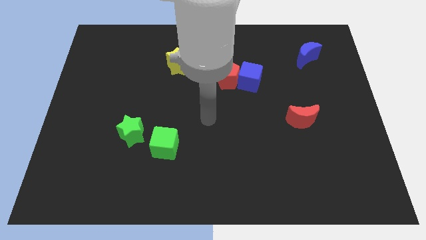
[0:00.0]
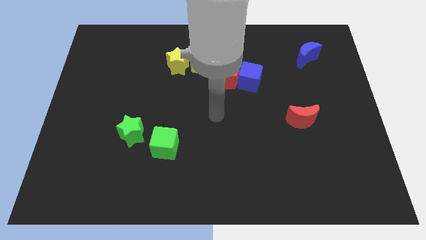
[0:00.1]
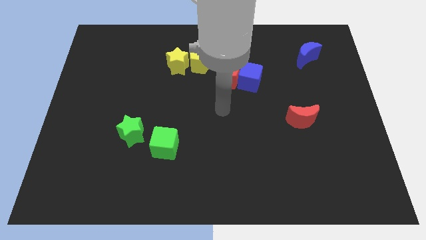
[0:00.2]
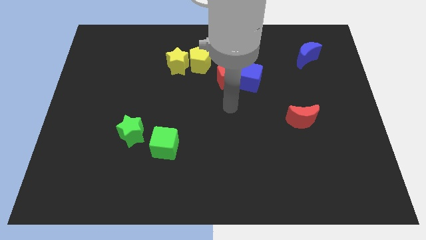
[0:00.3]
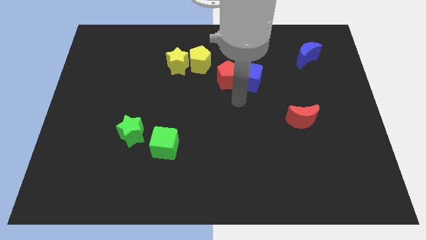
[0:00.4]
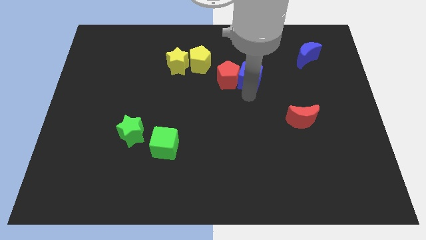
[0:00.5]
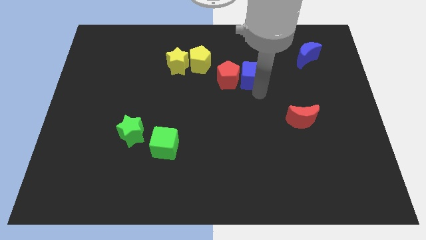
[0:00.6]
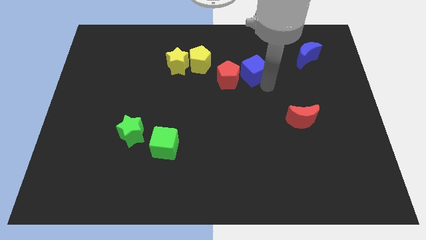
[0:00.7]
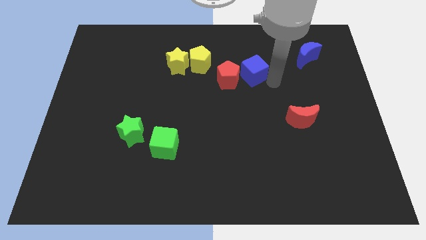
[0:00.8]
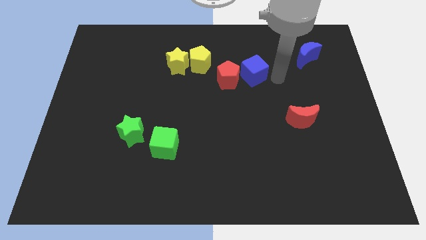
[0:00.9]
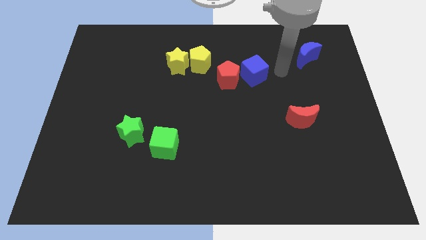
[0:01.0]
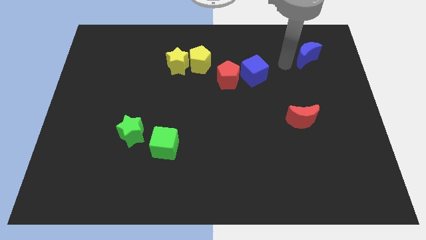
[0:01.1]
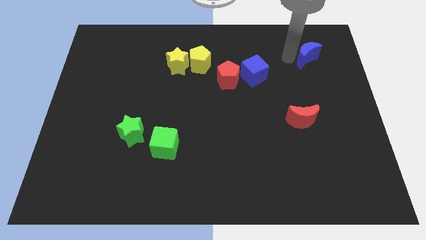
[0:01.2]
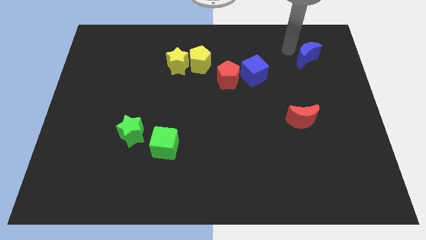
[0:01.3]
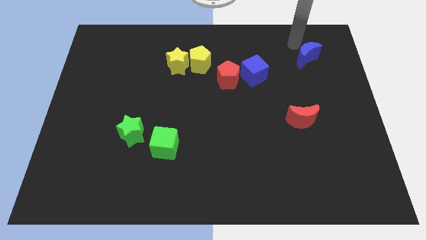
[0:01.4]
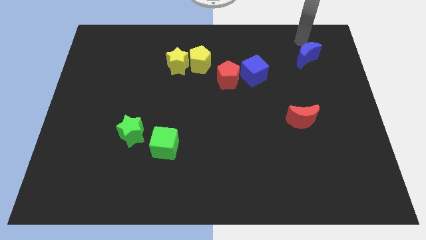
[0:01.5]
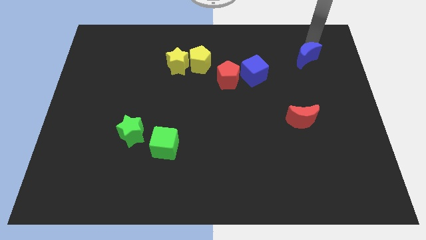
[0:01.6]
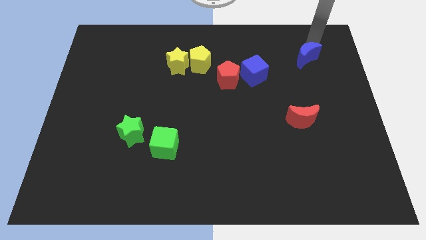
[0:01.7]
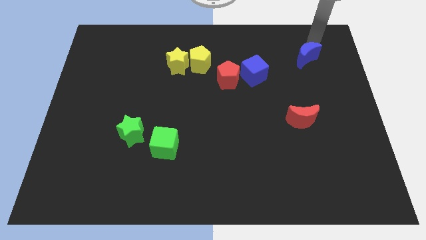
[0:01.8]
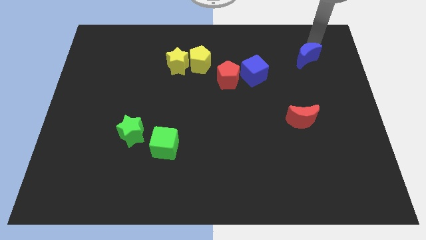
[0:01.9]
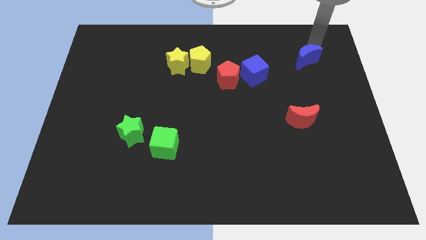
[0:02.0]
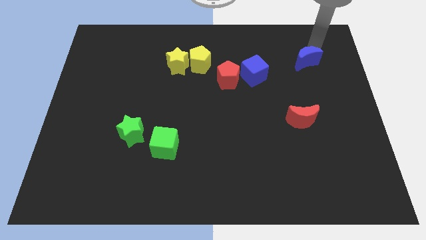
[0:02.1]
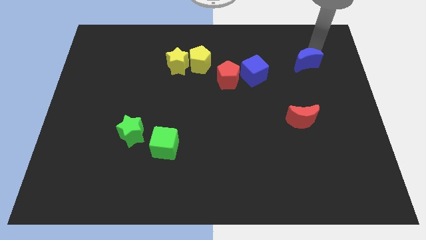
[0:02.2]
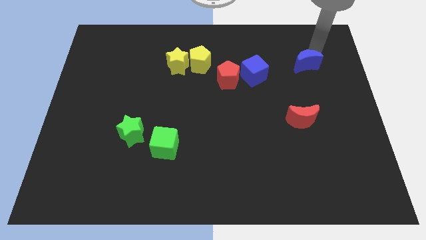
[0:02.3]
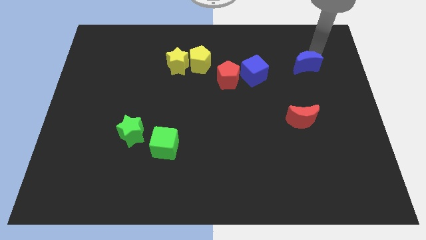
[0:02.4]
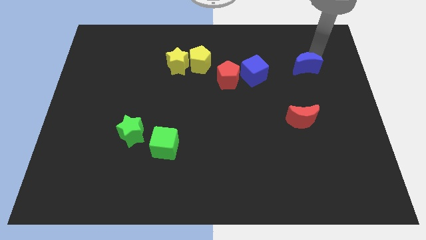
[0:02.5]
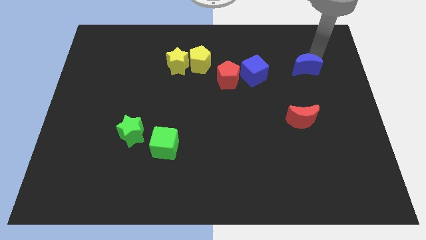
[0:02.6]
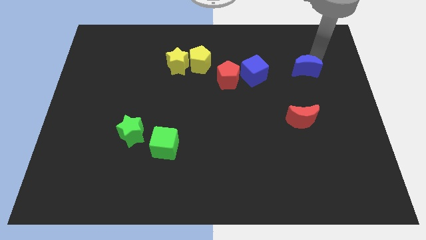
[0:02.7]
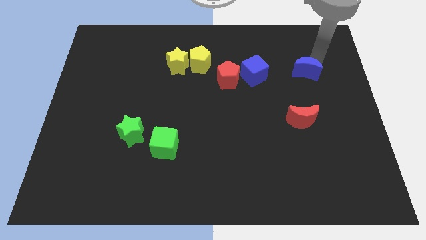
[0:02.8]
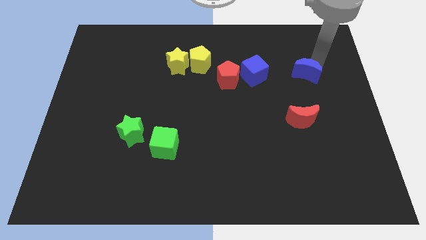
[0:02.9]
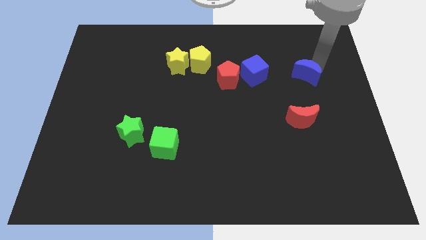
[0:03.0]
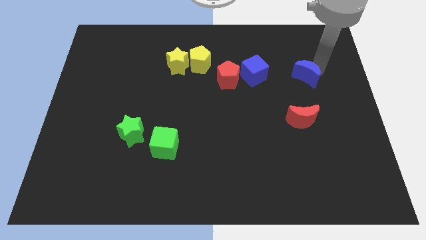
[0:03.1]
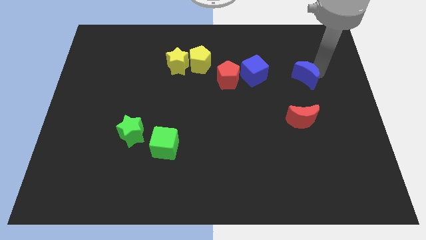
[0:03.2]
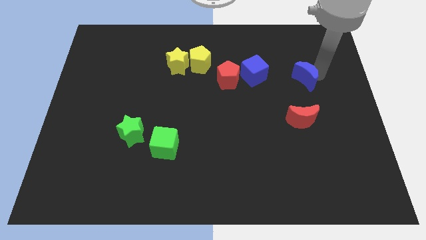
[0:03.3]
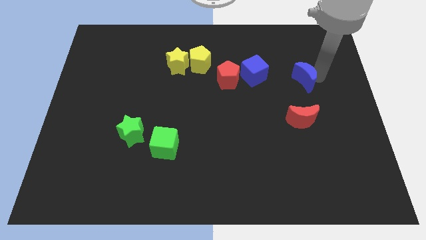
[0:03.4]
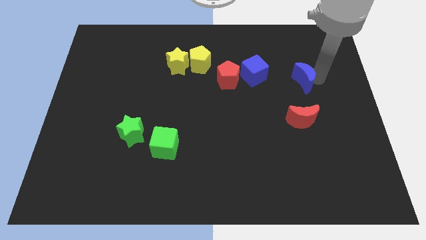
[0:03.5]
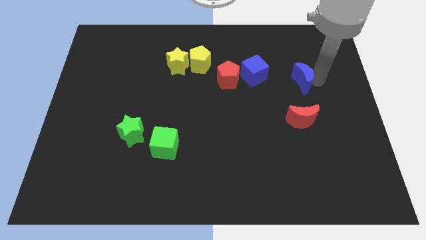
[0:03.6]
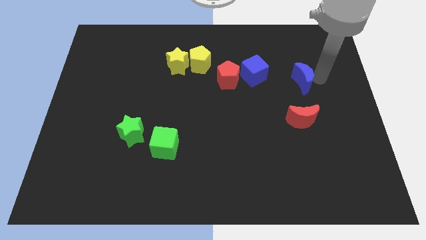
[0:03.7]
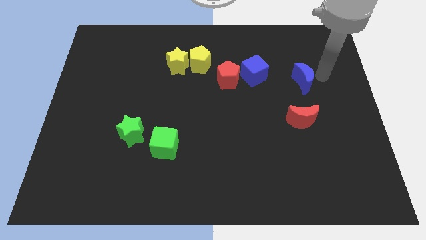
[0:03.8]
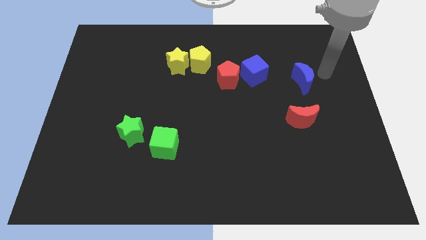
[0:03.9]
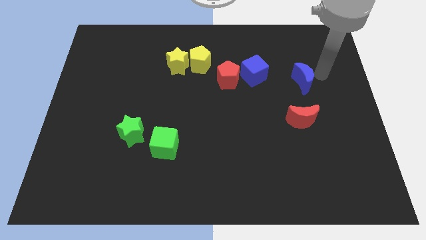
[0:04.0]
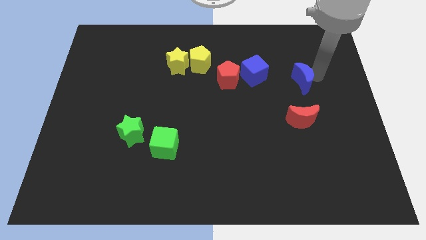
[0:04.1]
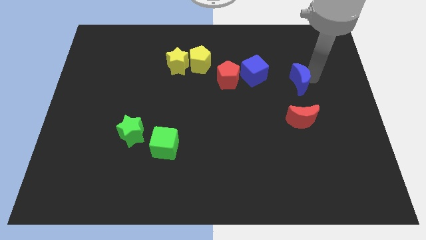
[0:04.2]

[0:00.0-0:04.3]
push the blue moon down and then to the left somewhat

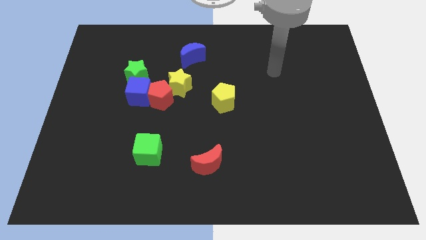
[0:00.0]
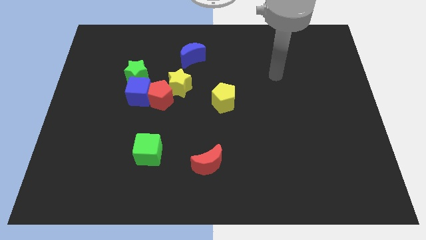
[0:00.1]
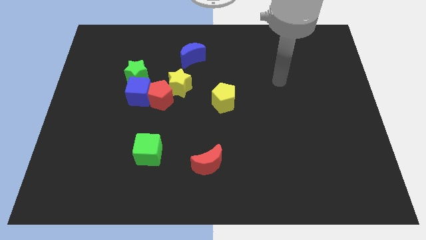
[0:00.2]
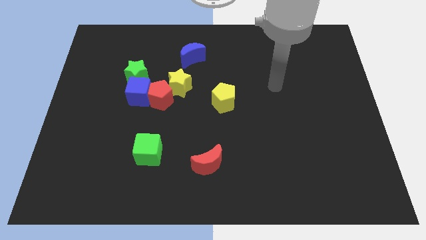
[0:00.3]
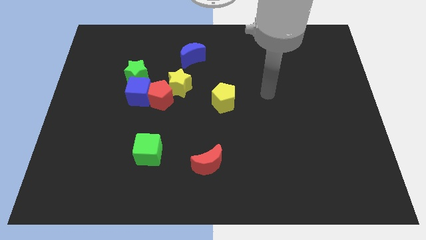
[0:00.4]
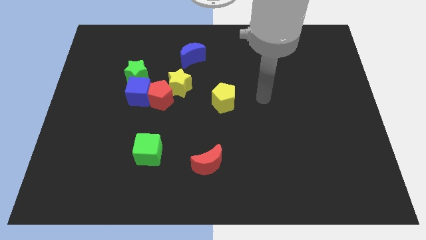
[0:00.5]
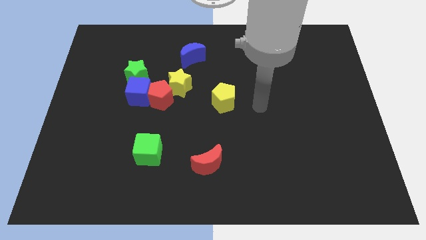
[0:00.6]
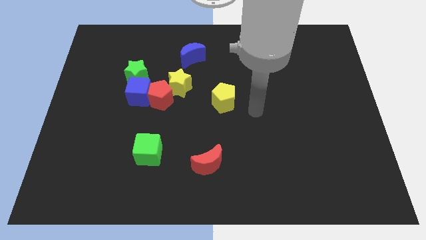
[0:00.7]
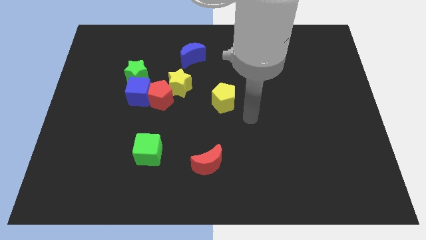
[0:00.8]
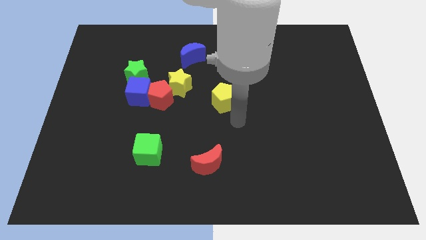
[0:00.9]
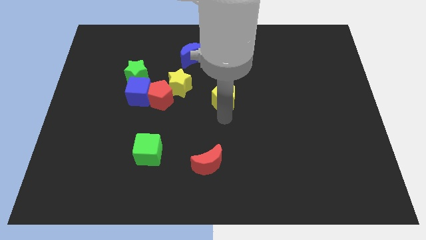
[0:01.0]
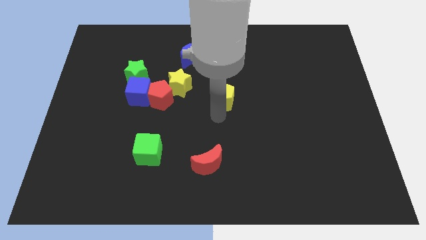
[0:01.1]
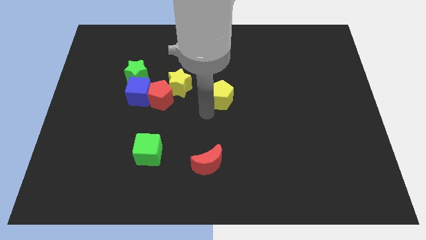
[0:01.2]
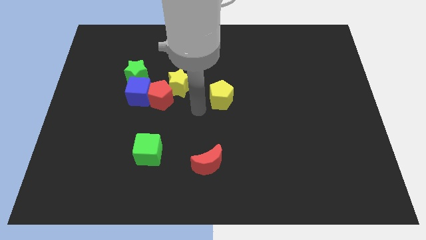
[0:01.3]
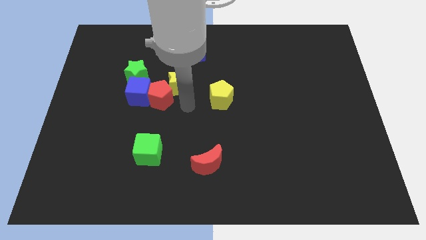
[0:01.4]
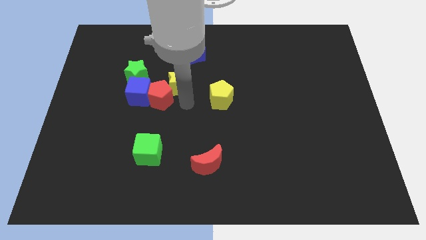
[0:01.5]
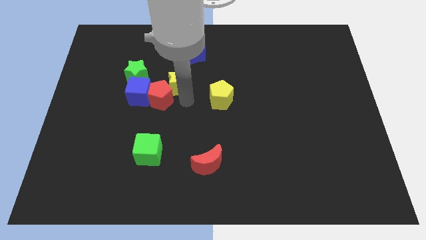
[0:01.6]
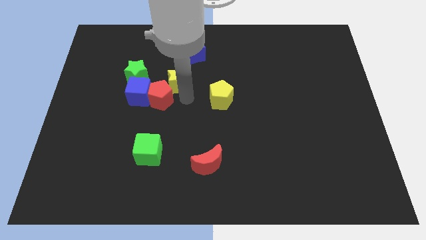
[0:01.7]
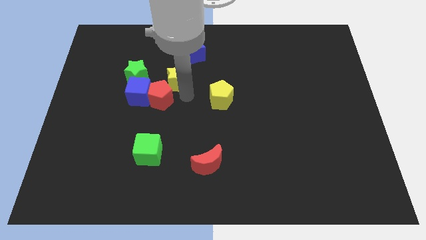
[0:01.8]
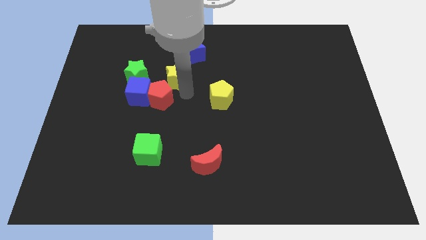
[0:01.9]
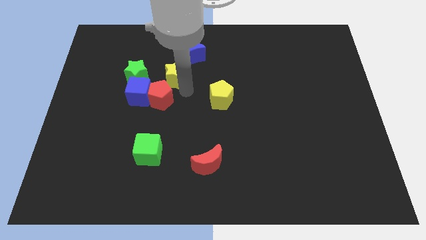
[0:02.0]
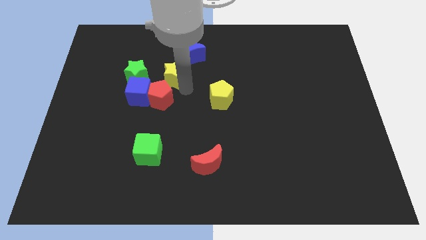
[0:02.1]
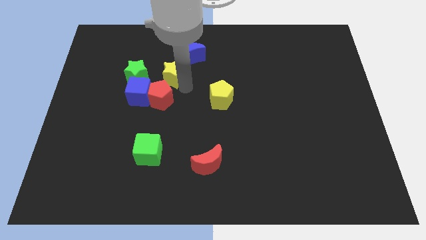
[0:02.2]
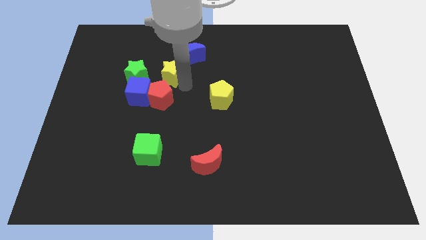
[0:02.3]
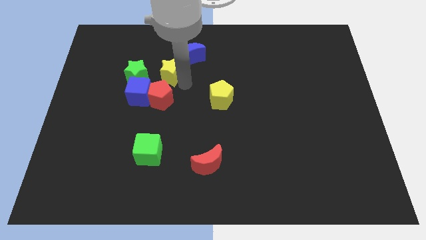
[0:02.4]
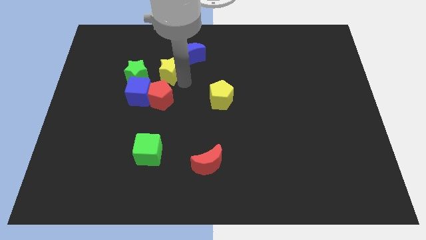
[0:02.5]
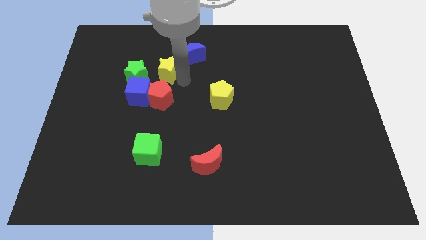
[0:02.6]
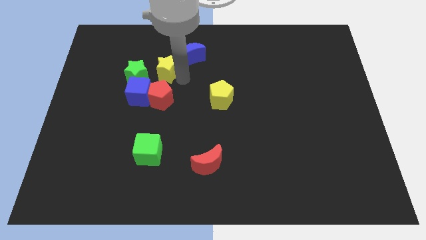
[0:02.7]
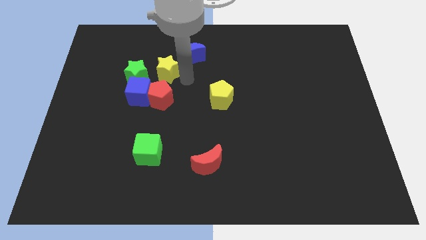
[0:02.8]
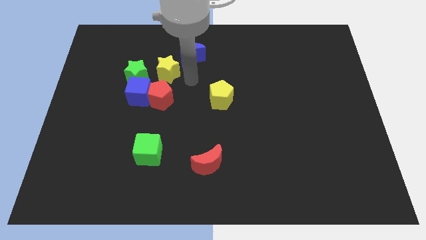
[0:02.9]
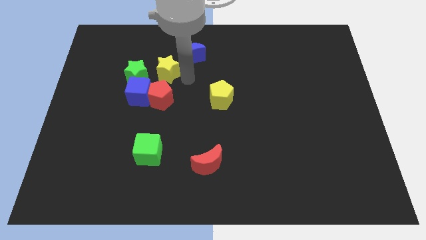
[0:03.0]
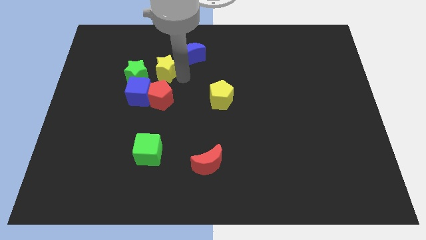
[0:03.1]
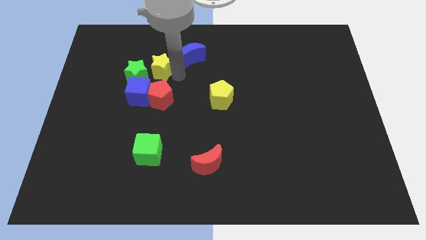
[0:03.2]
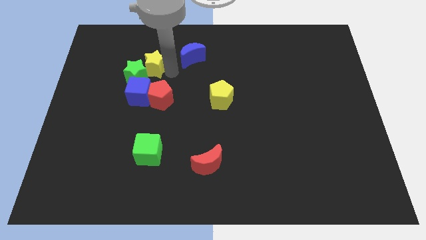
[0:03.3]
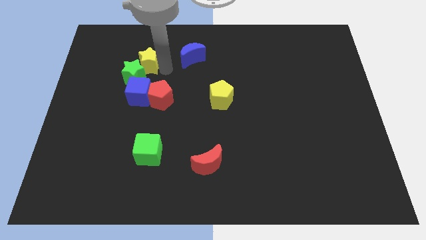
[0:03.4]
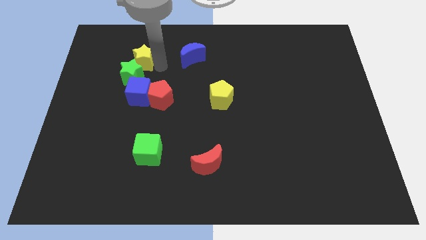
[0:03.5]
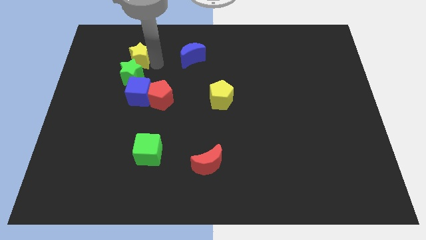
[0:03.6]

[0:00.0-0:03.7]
push the yellow star left slightly
